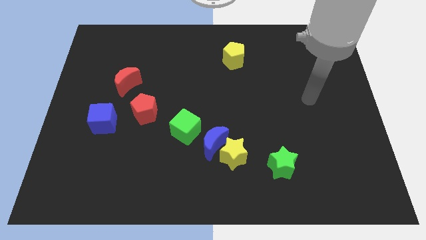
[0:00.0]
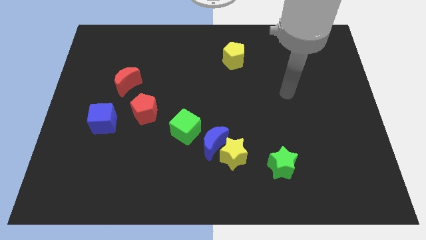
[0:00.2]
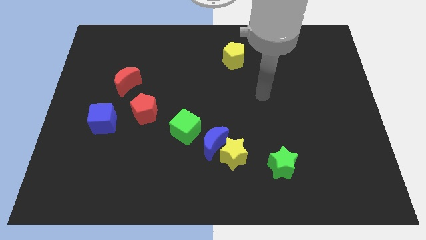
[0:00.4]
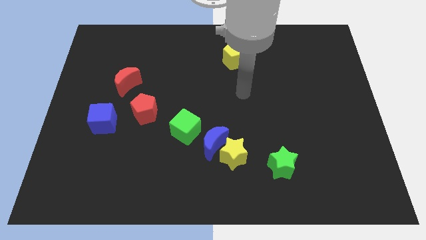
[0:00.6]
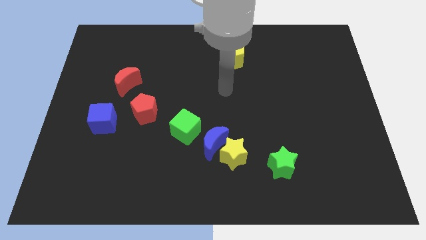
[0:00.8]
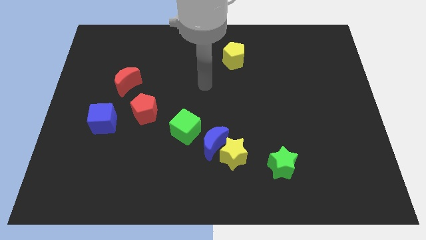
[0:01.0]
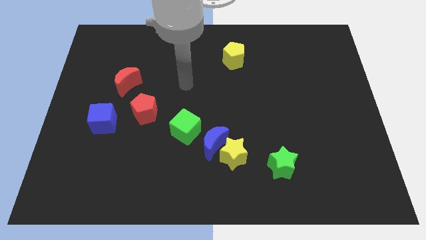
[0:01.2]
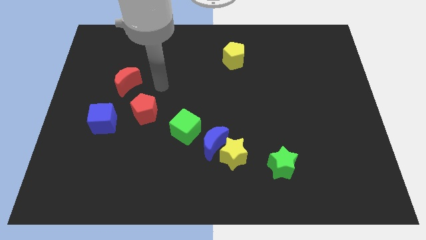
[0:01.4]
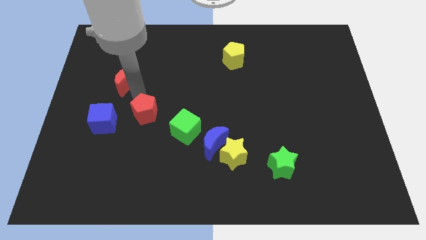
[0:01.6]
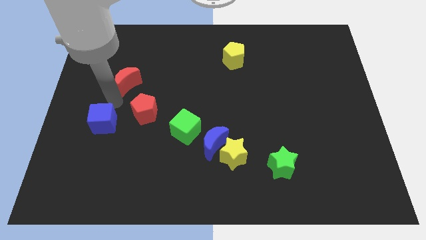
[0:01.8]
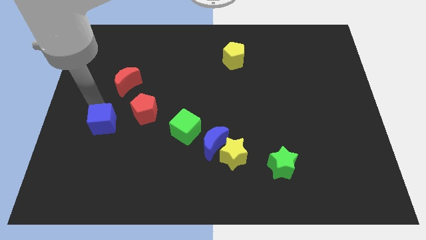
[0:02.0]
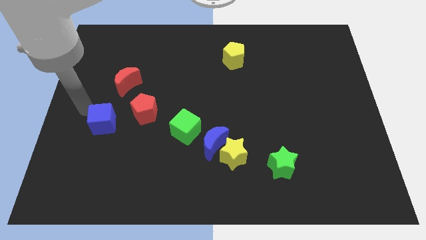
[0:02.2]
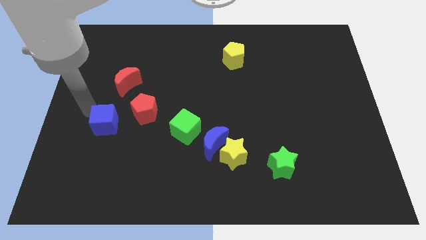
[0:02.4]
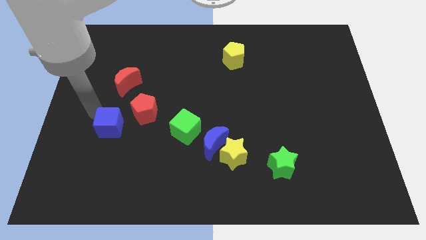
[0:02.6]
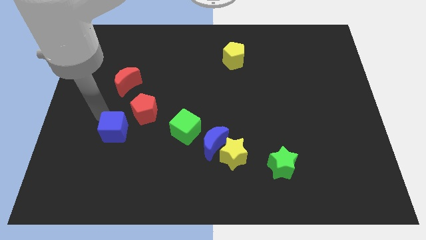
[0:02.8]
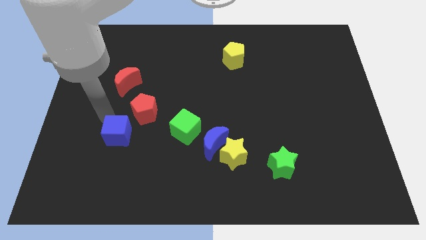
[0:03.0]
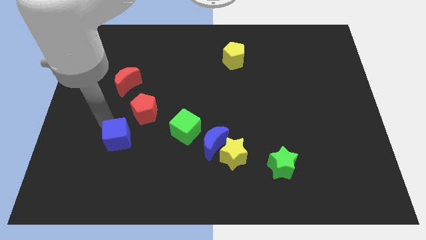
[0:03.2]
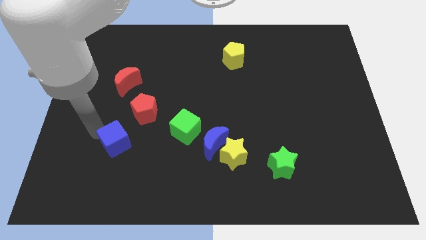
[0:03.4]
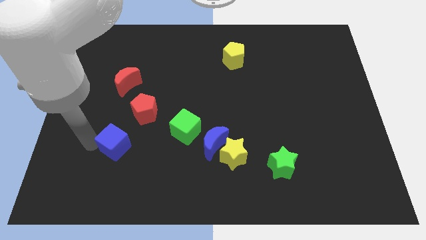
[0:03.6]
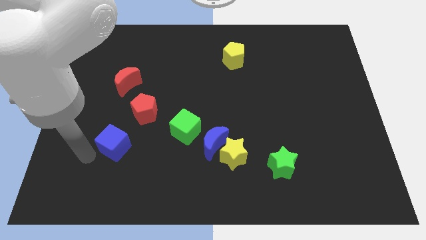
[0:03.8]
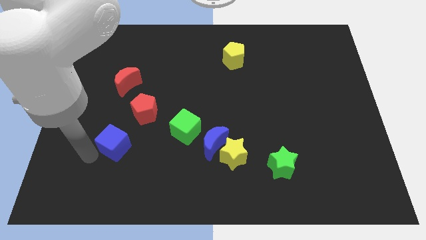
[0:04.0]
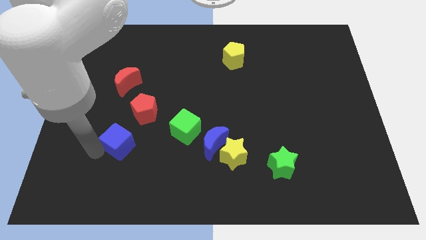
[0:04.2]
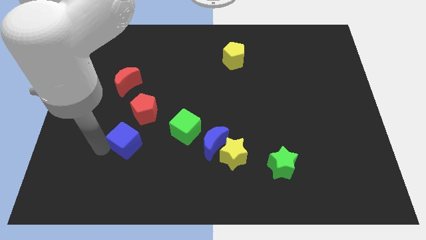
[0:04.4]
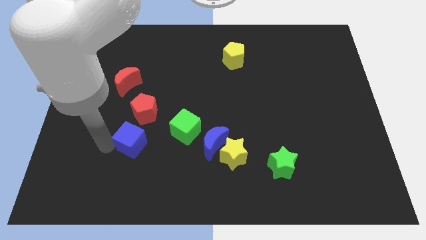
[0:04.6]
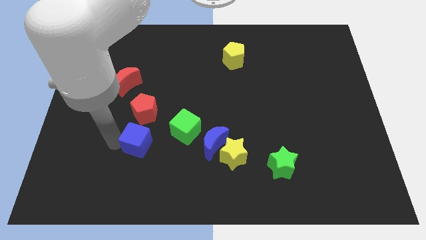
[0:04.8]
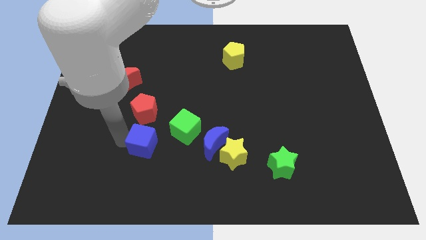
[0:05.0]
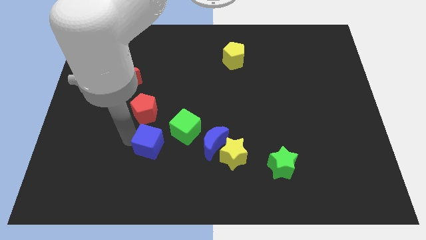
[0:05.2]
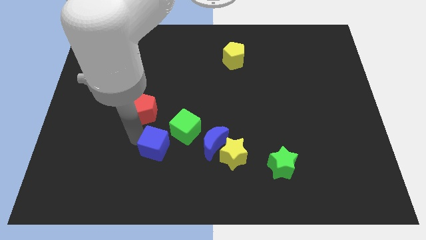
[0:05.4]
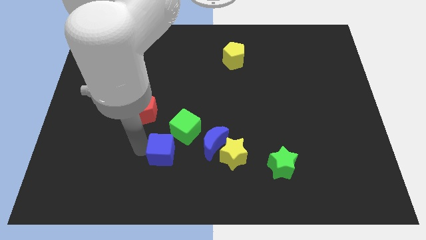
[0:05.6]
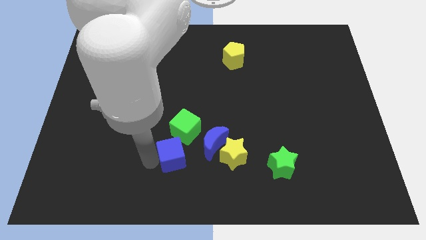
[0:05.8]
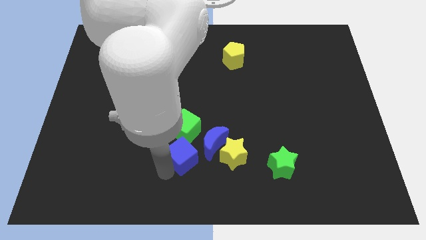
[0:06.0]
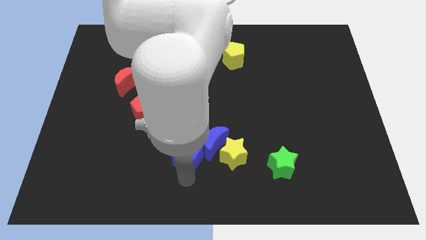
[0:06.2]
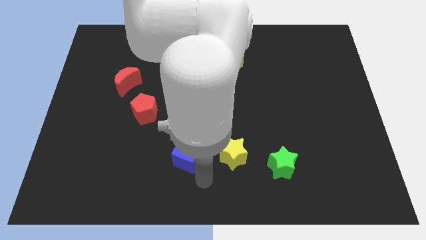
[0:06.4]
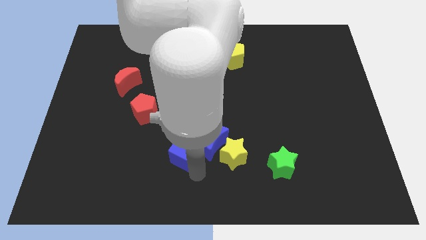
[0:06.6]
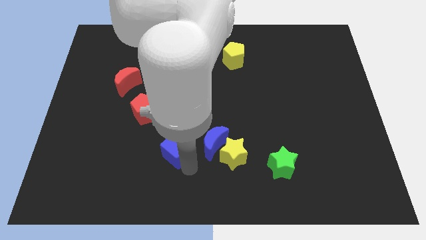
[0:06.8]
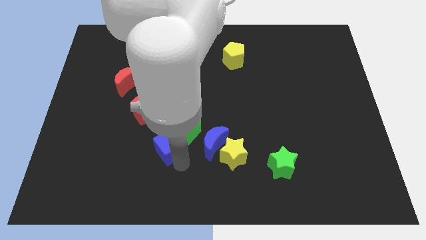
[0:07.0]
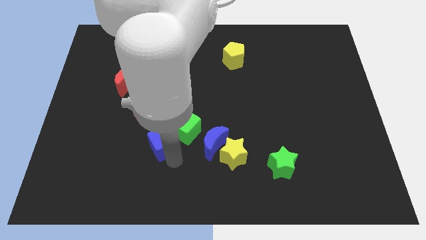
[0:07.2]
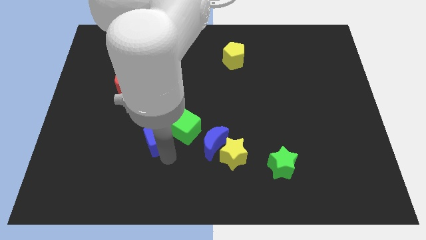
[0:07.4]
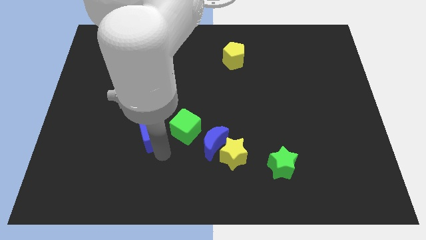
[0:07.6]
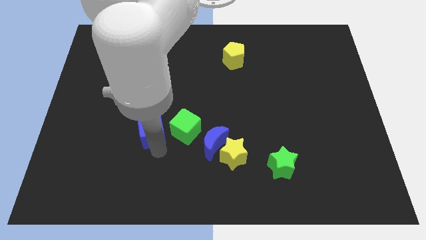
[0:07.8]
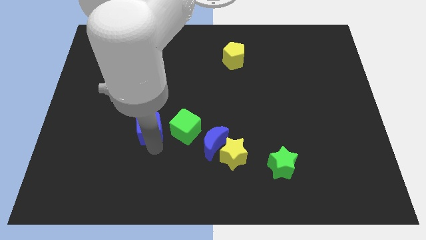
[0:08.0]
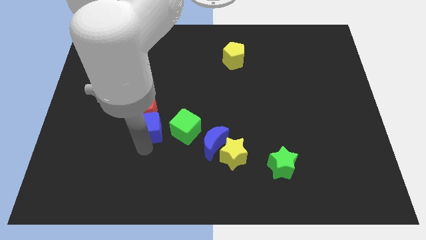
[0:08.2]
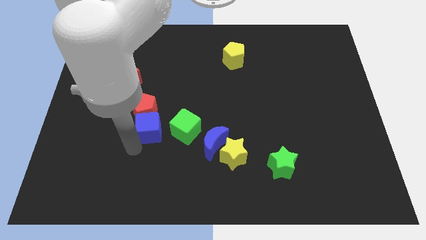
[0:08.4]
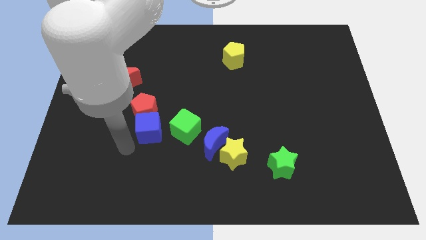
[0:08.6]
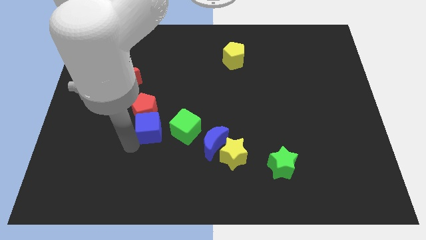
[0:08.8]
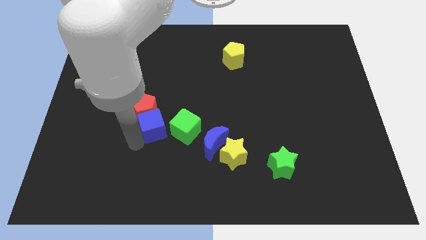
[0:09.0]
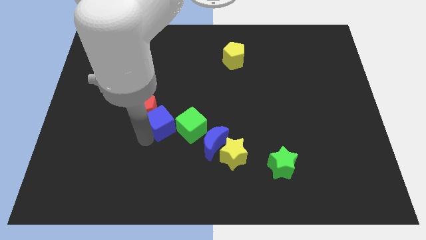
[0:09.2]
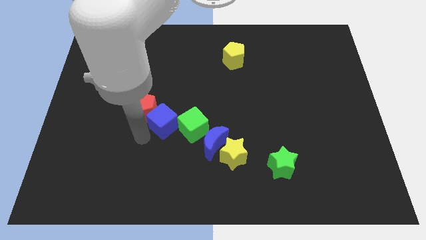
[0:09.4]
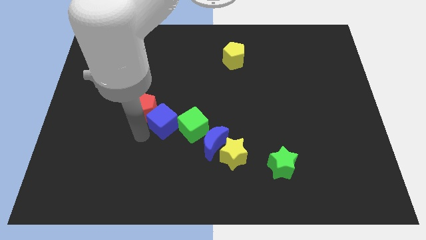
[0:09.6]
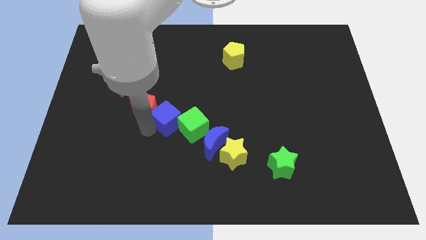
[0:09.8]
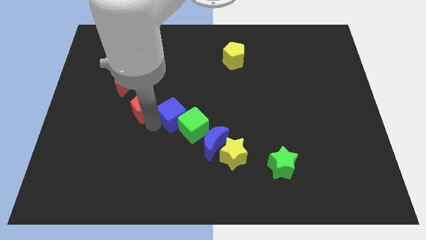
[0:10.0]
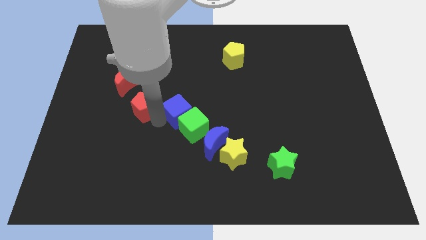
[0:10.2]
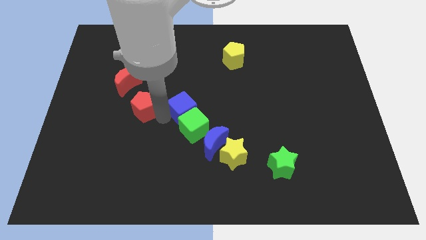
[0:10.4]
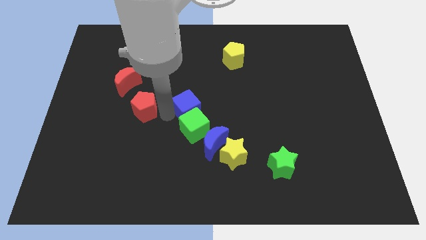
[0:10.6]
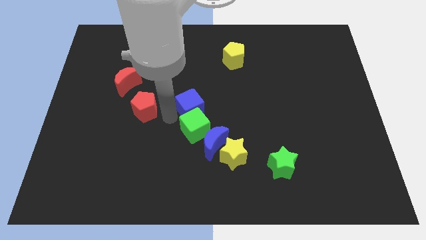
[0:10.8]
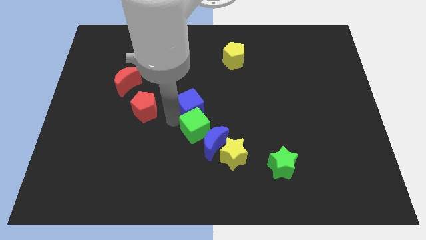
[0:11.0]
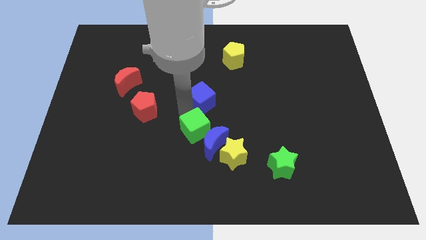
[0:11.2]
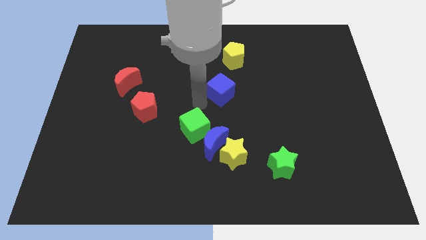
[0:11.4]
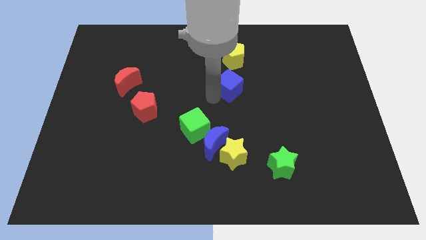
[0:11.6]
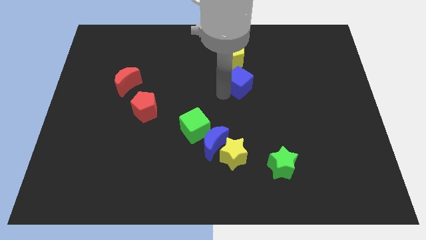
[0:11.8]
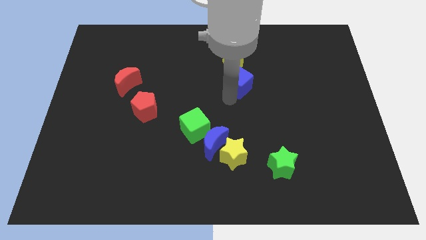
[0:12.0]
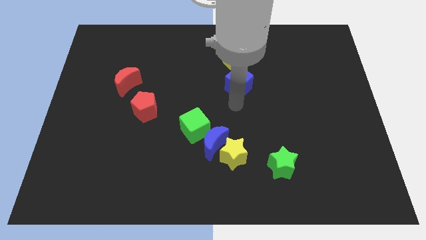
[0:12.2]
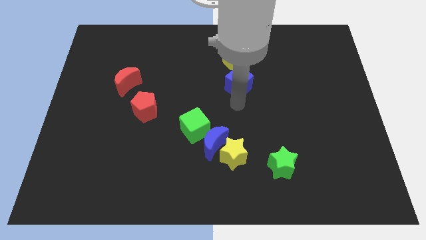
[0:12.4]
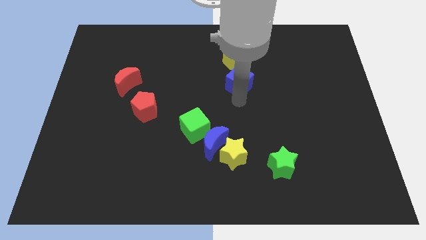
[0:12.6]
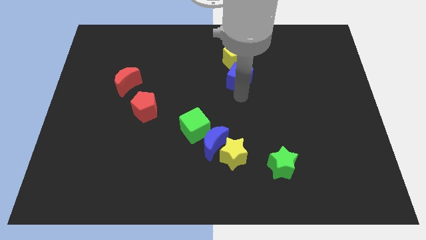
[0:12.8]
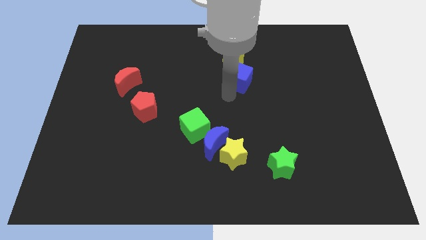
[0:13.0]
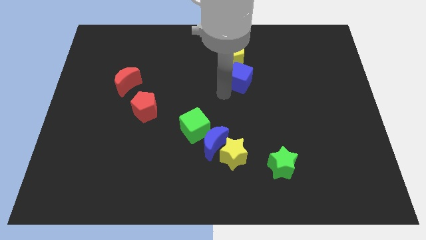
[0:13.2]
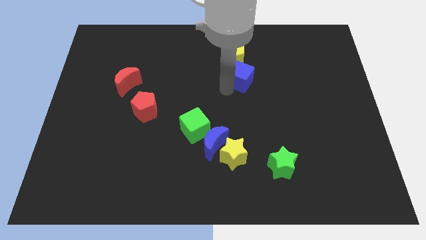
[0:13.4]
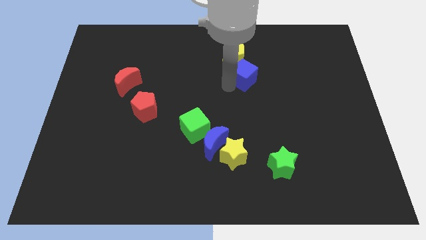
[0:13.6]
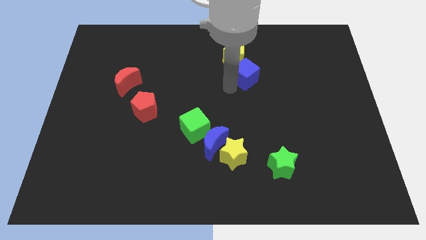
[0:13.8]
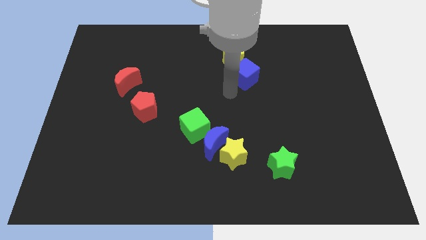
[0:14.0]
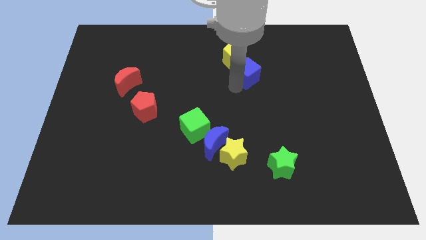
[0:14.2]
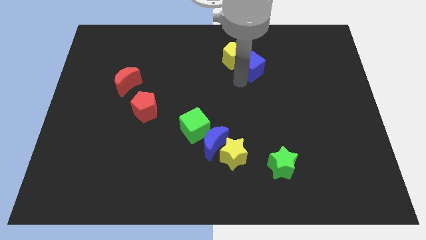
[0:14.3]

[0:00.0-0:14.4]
push the blue cube right of the yellow pentagon
